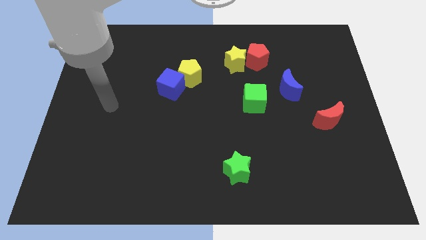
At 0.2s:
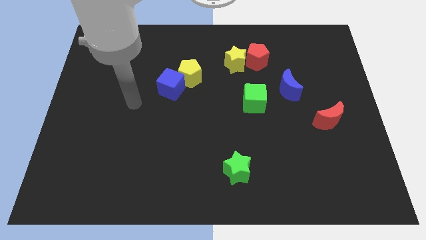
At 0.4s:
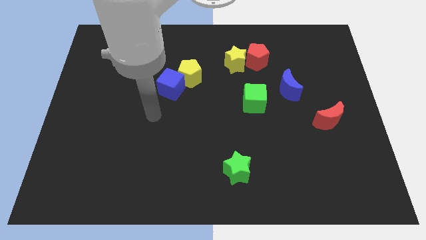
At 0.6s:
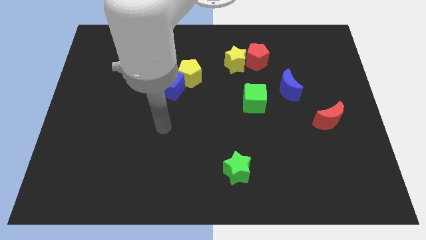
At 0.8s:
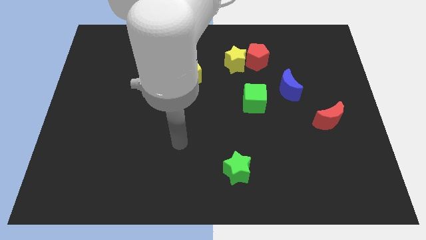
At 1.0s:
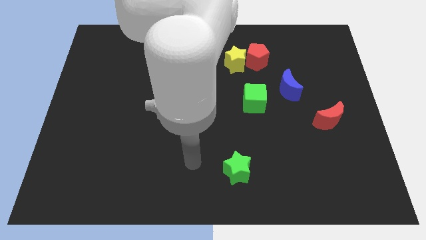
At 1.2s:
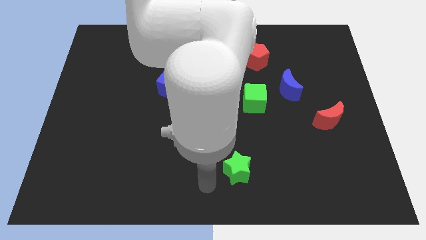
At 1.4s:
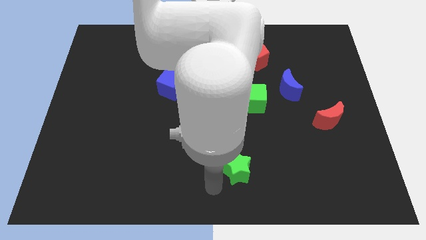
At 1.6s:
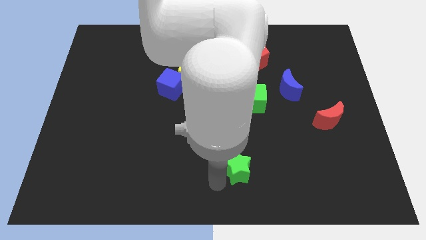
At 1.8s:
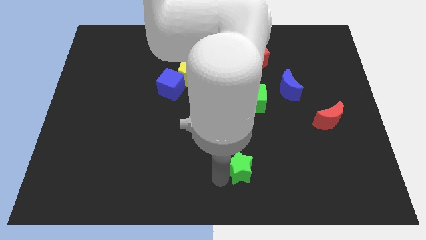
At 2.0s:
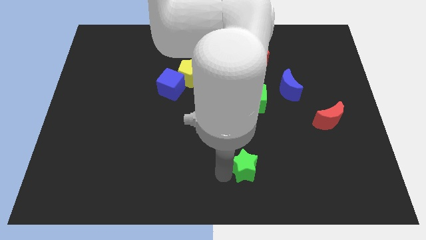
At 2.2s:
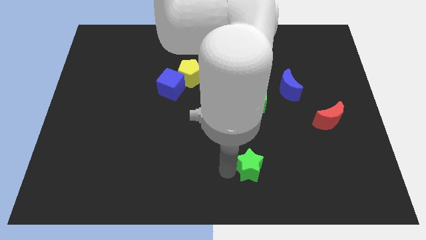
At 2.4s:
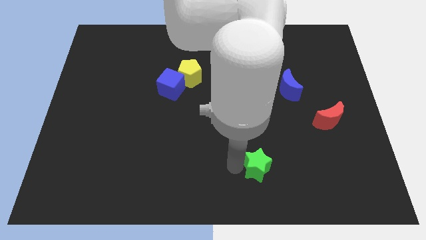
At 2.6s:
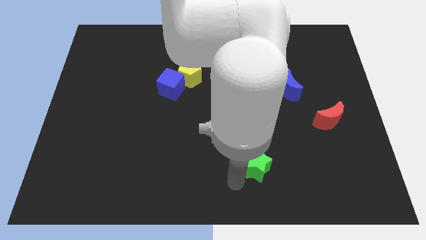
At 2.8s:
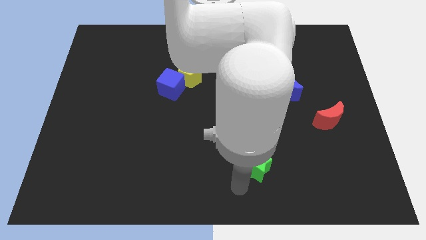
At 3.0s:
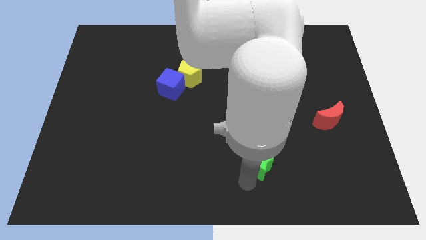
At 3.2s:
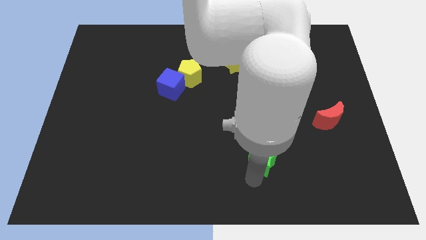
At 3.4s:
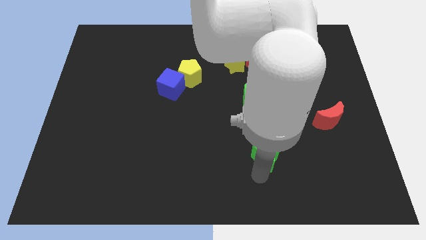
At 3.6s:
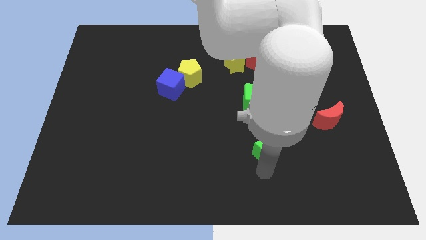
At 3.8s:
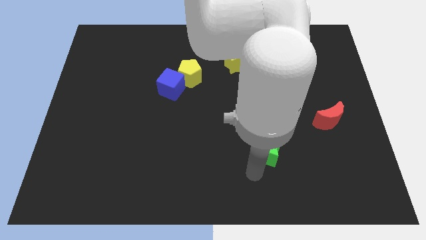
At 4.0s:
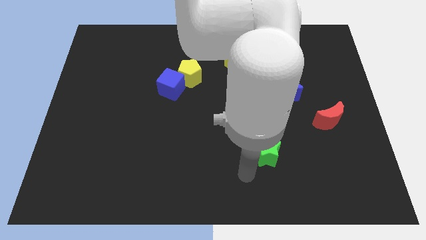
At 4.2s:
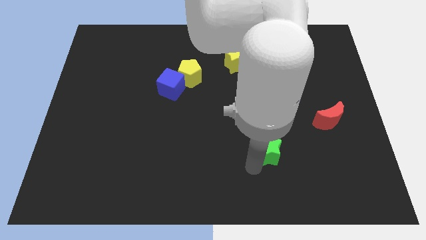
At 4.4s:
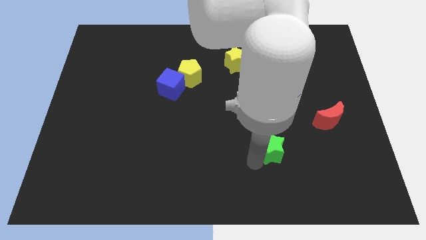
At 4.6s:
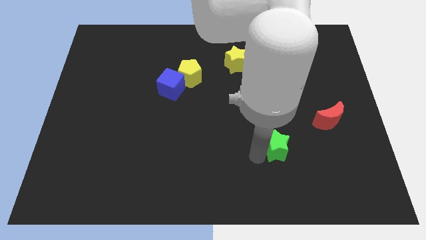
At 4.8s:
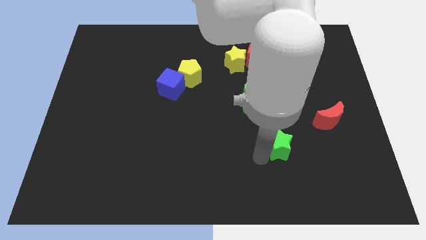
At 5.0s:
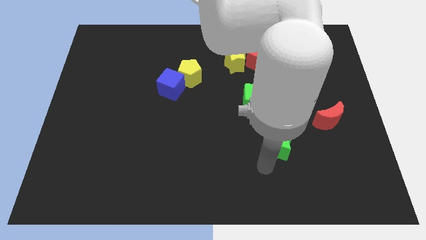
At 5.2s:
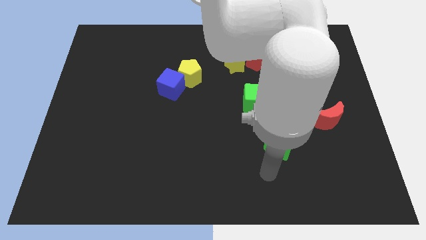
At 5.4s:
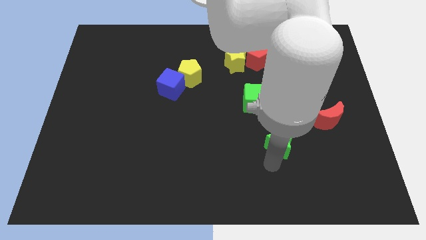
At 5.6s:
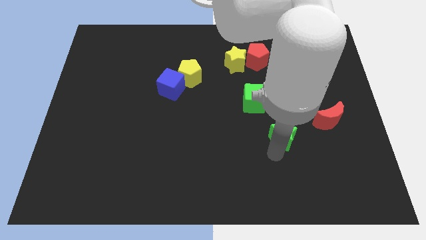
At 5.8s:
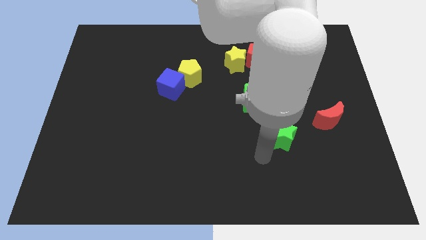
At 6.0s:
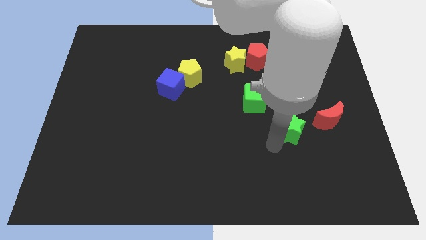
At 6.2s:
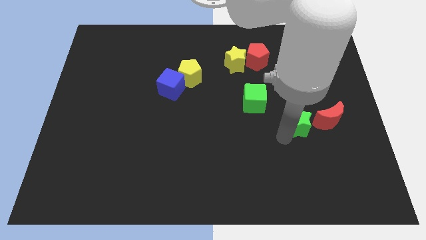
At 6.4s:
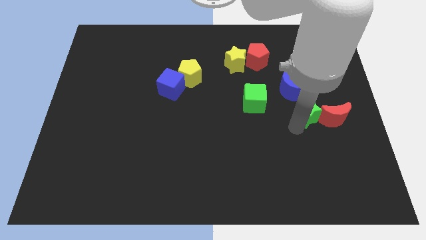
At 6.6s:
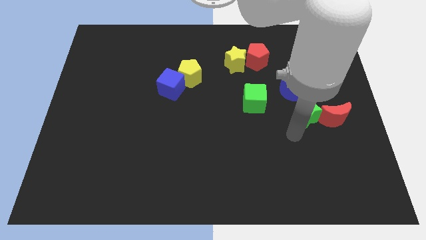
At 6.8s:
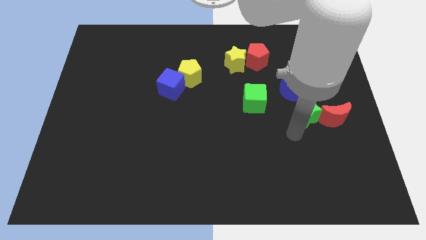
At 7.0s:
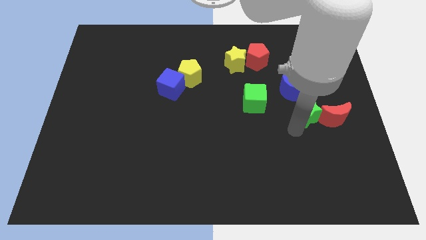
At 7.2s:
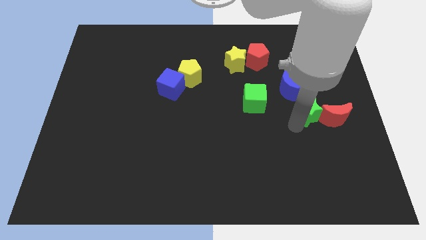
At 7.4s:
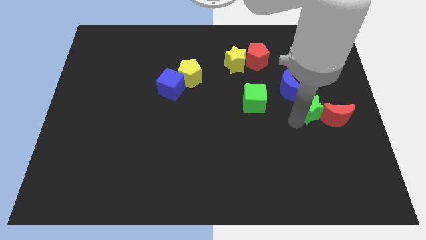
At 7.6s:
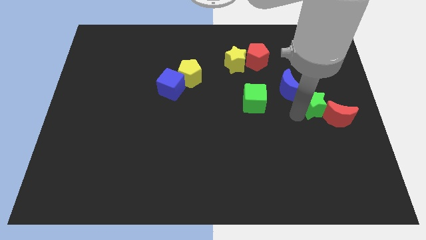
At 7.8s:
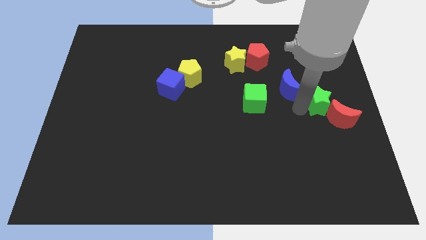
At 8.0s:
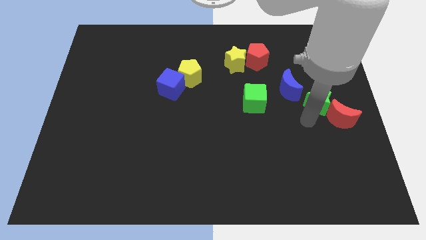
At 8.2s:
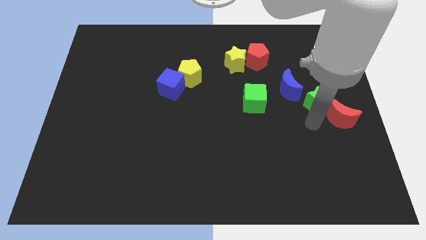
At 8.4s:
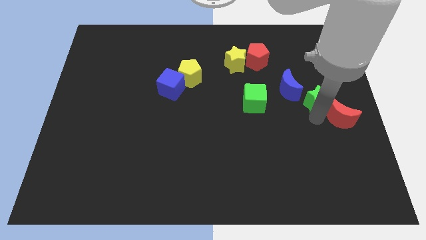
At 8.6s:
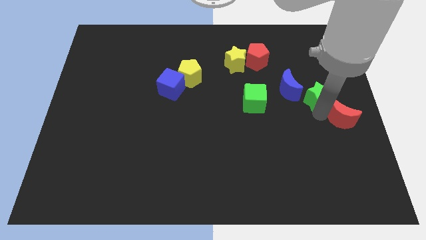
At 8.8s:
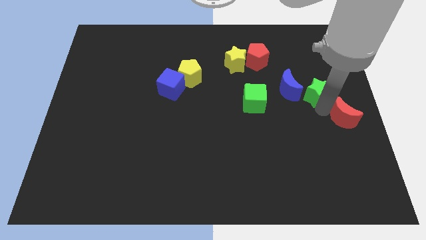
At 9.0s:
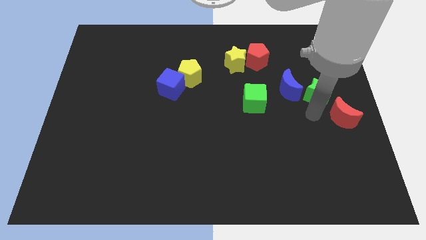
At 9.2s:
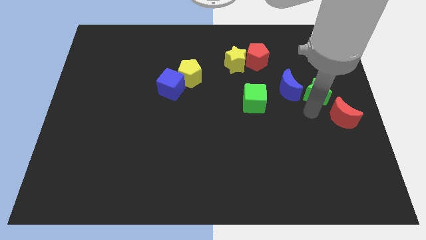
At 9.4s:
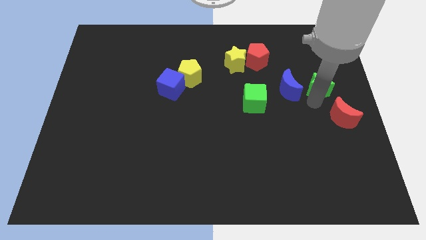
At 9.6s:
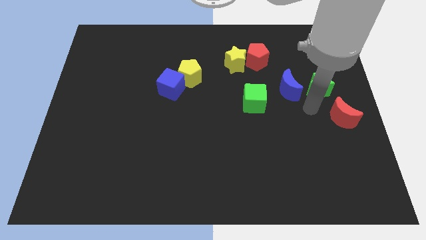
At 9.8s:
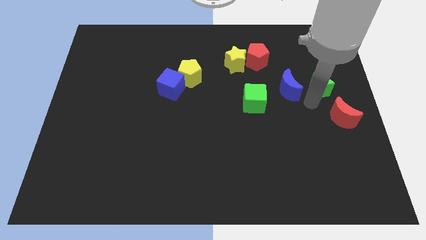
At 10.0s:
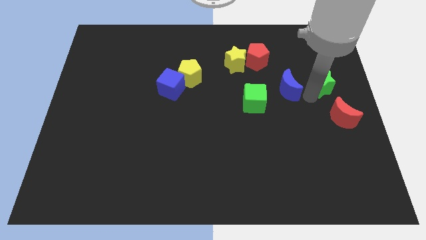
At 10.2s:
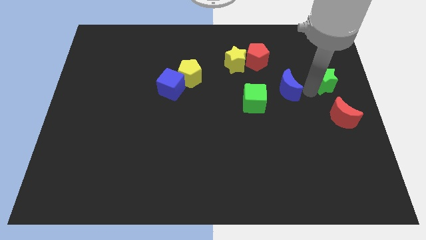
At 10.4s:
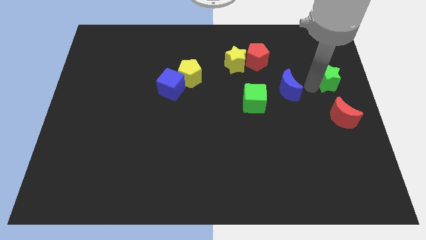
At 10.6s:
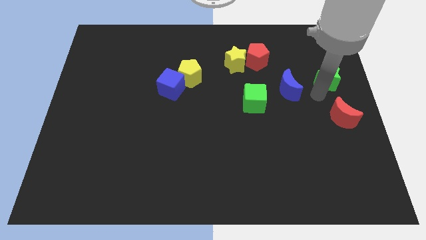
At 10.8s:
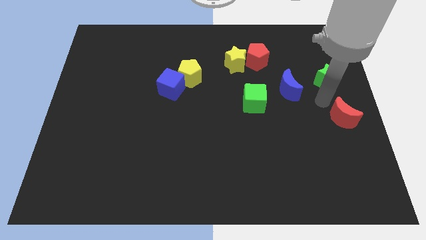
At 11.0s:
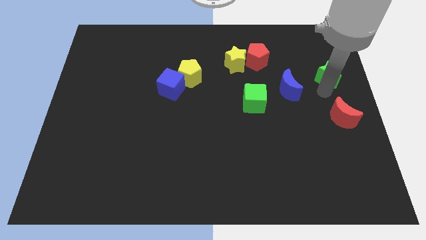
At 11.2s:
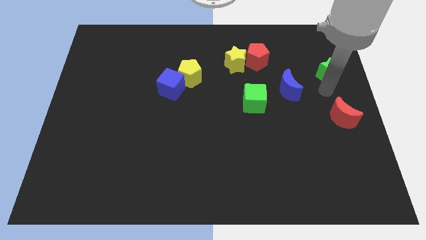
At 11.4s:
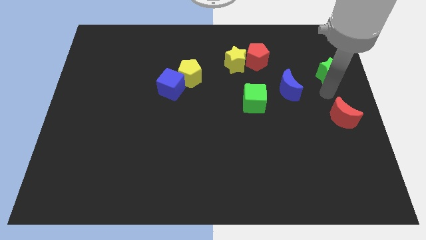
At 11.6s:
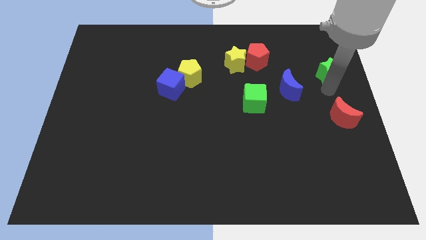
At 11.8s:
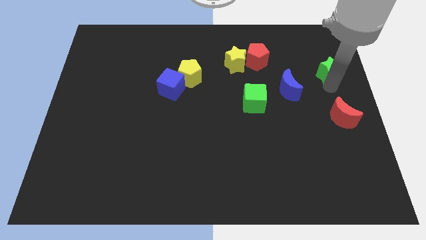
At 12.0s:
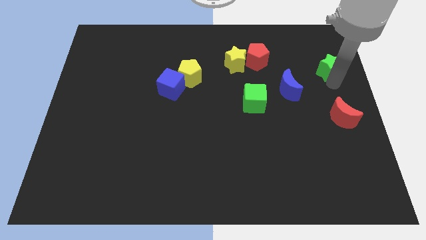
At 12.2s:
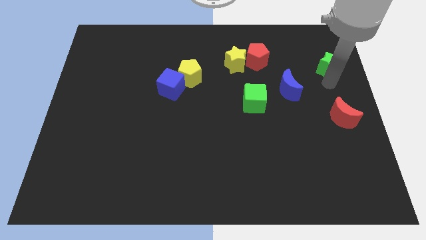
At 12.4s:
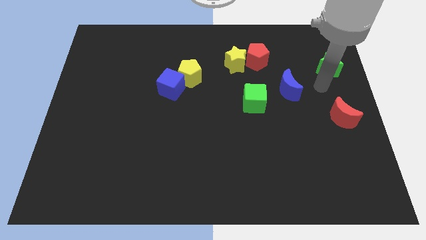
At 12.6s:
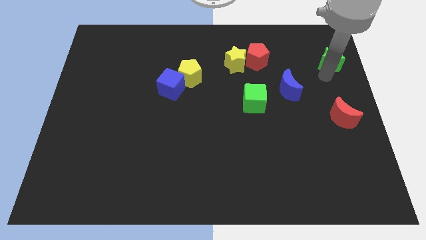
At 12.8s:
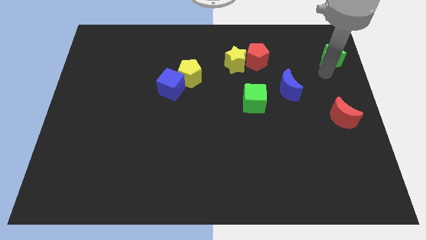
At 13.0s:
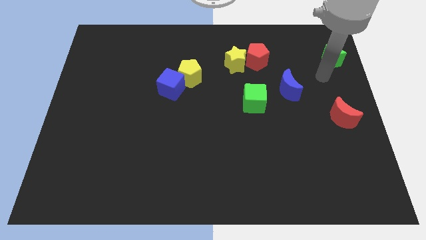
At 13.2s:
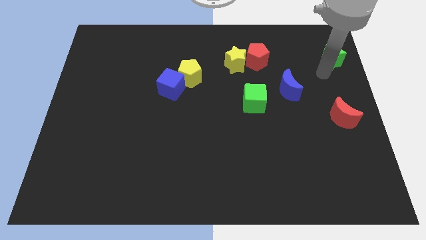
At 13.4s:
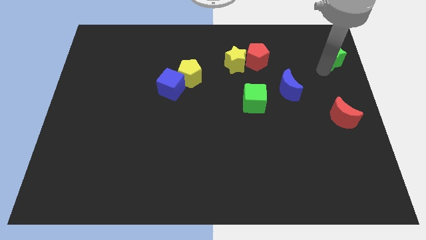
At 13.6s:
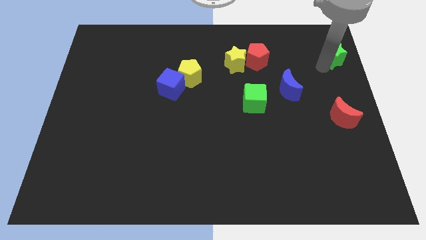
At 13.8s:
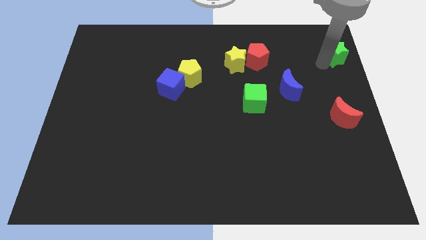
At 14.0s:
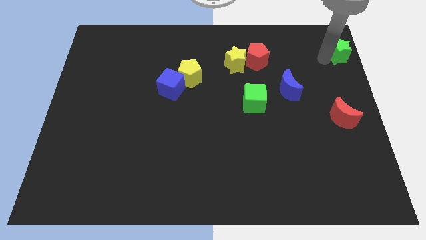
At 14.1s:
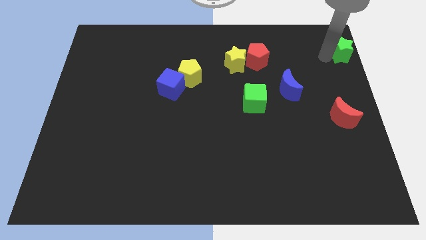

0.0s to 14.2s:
push the green star to the upper right corner
